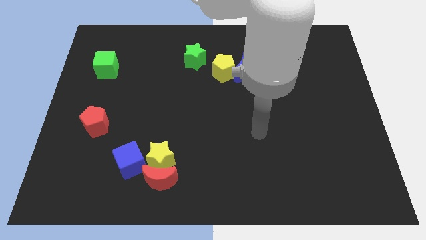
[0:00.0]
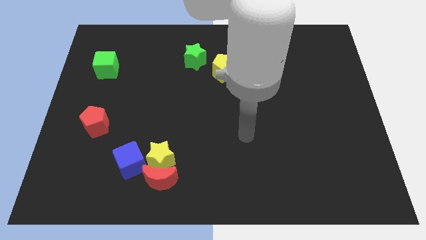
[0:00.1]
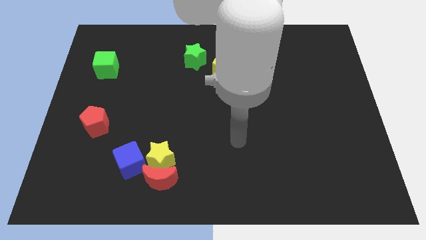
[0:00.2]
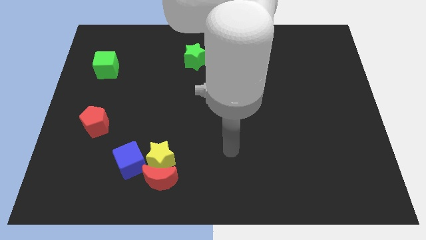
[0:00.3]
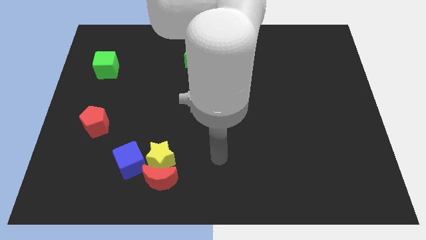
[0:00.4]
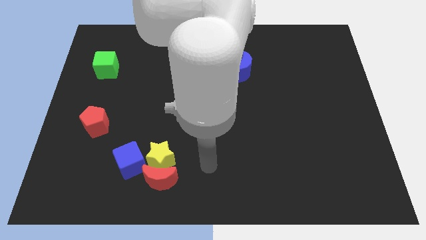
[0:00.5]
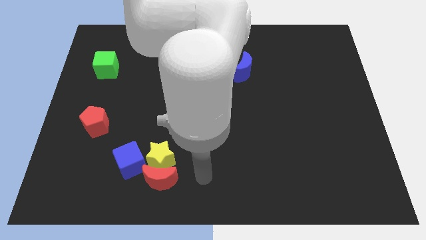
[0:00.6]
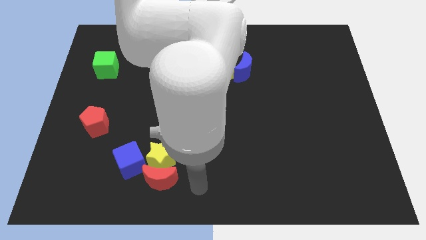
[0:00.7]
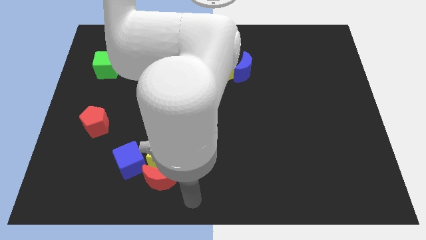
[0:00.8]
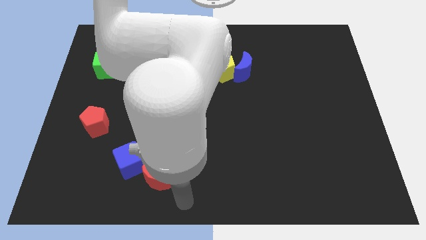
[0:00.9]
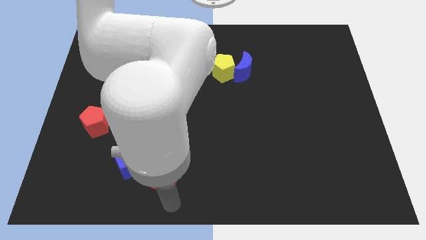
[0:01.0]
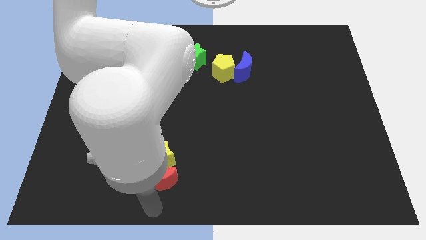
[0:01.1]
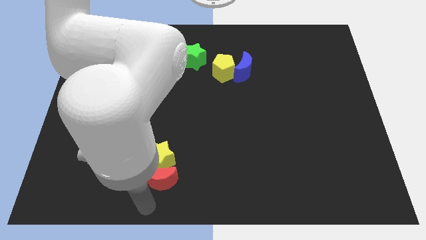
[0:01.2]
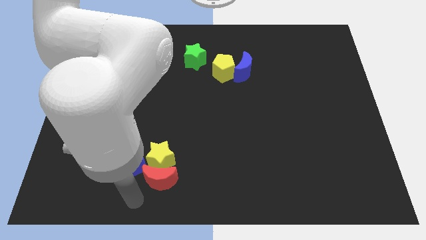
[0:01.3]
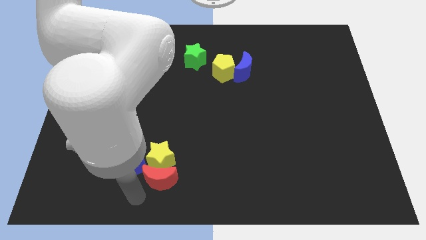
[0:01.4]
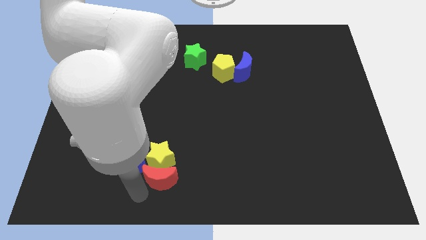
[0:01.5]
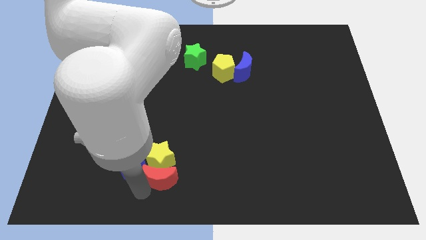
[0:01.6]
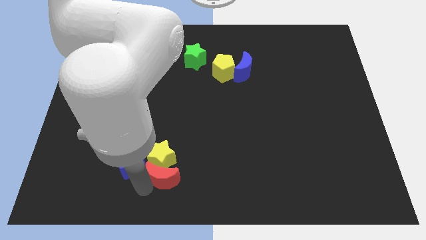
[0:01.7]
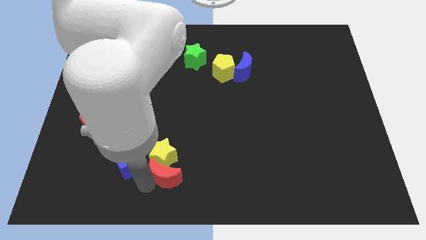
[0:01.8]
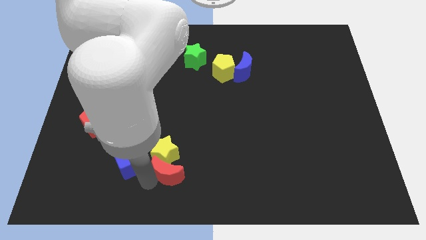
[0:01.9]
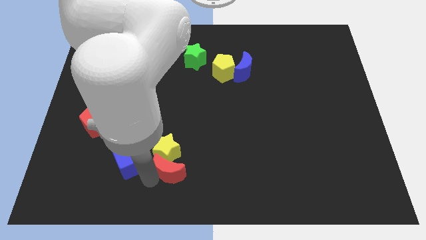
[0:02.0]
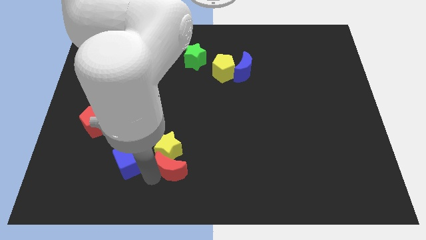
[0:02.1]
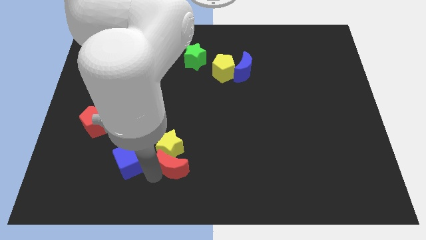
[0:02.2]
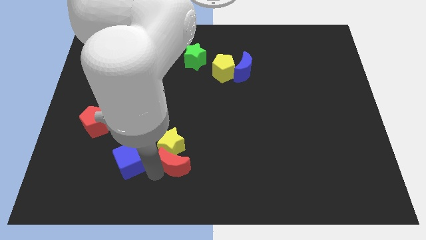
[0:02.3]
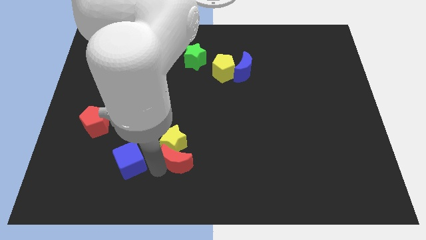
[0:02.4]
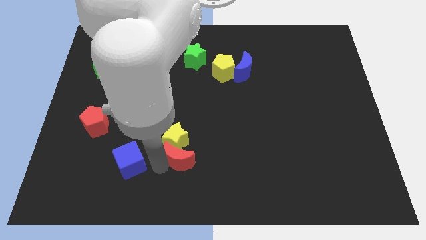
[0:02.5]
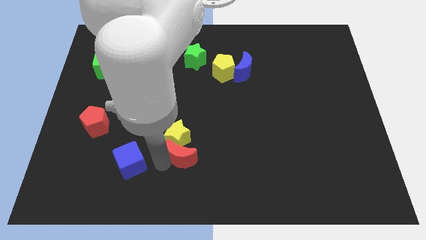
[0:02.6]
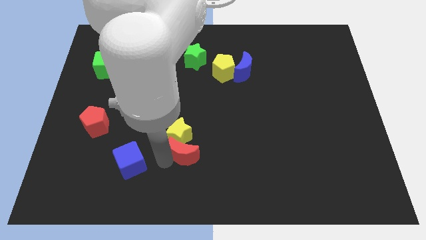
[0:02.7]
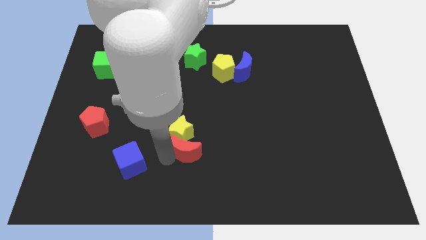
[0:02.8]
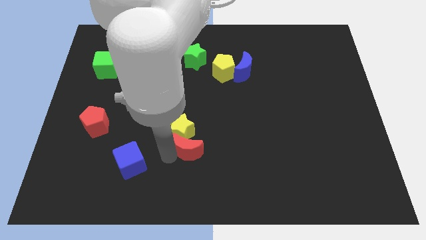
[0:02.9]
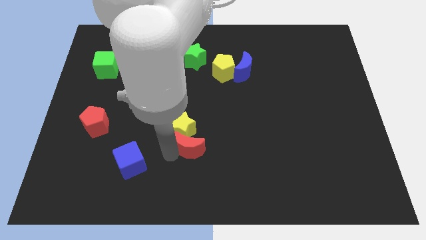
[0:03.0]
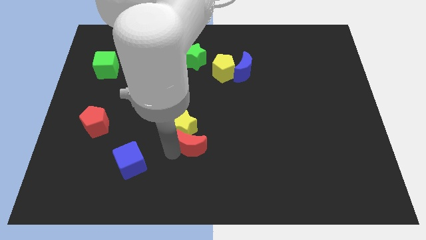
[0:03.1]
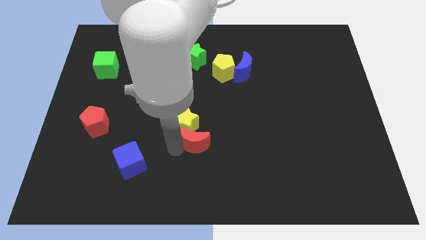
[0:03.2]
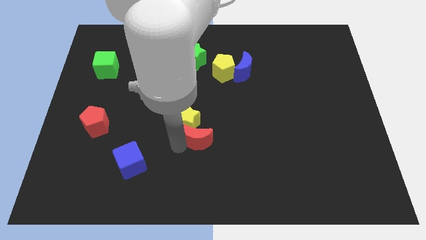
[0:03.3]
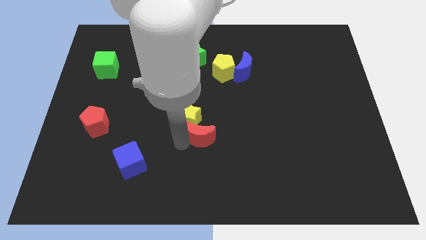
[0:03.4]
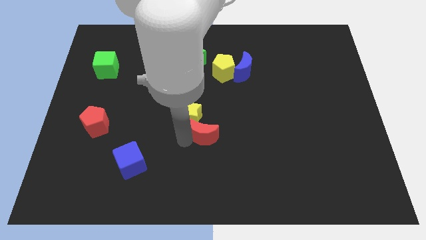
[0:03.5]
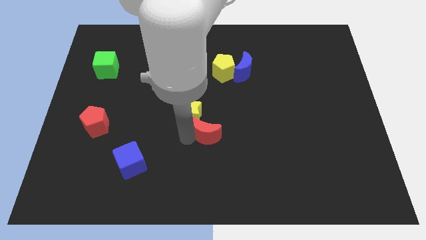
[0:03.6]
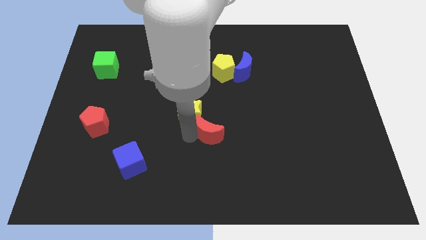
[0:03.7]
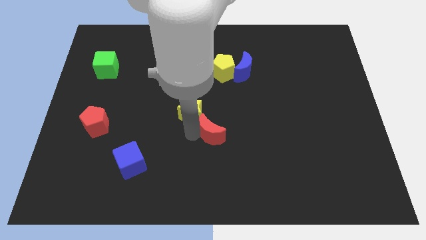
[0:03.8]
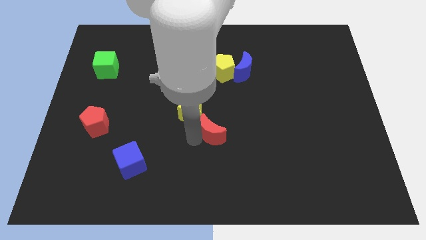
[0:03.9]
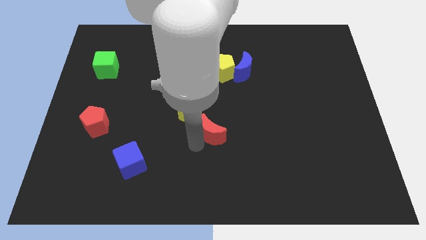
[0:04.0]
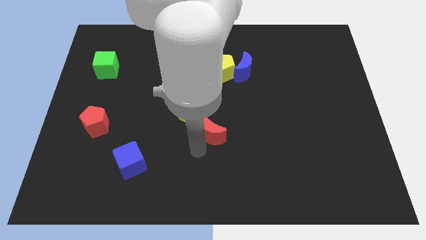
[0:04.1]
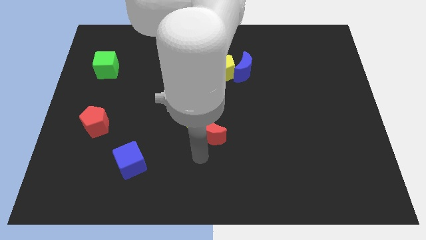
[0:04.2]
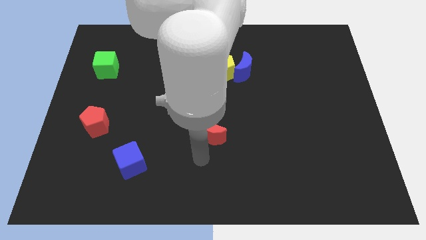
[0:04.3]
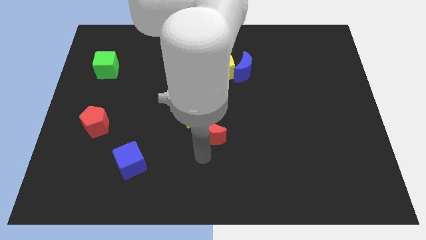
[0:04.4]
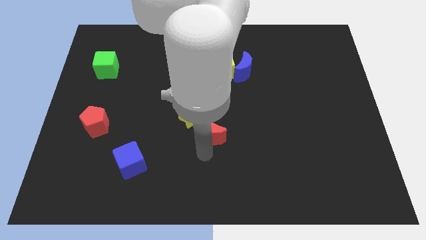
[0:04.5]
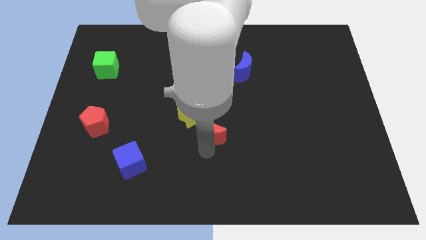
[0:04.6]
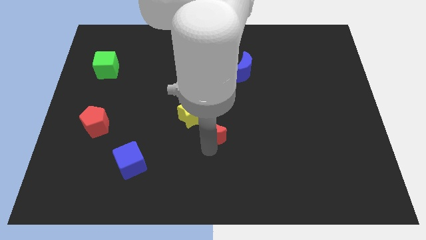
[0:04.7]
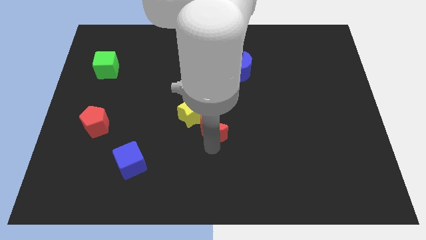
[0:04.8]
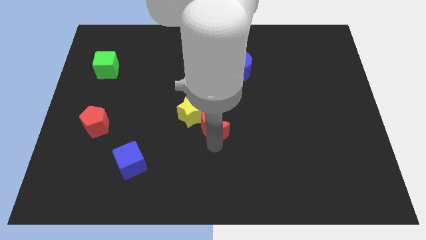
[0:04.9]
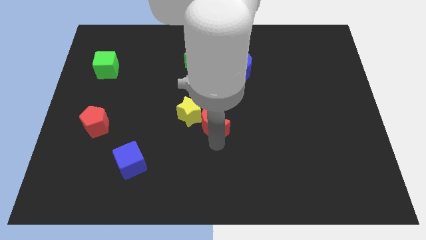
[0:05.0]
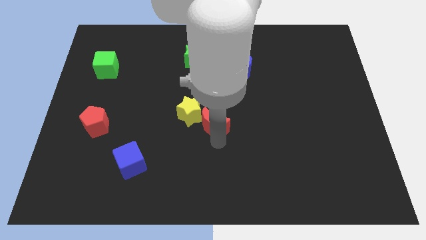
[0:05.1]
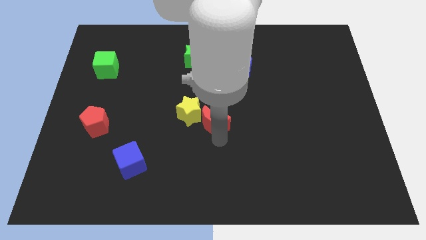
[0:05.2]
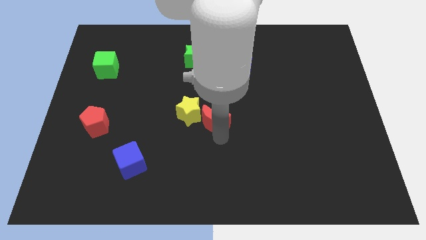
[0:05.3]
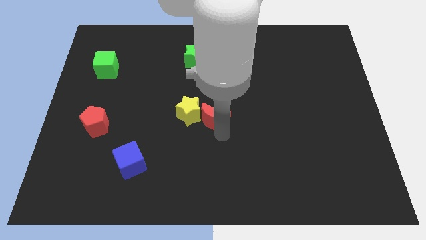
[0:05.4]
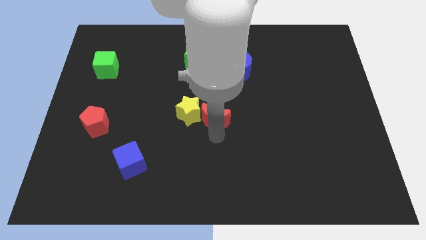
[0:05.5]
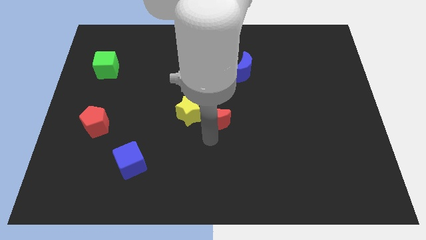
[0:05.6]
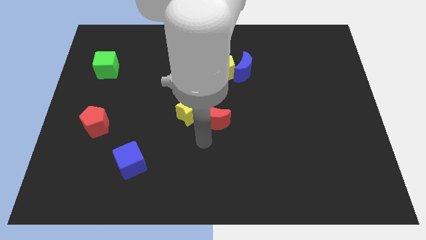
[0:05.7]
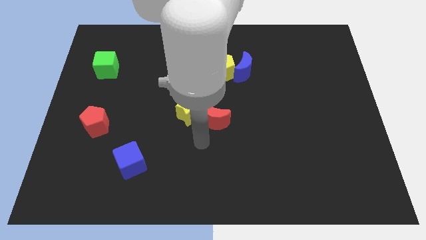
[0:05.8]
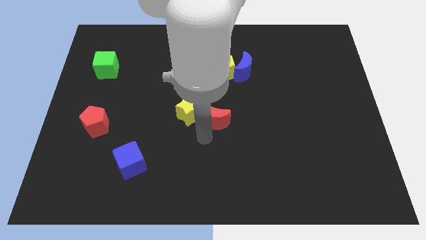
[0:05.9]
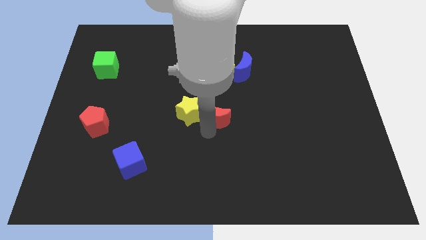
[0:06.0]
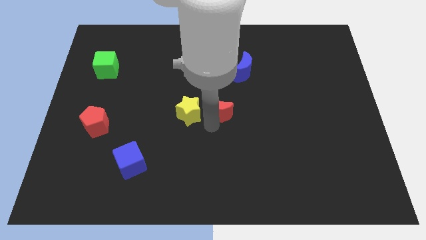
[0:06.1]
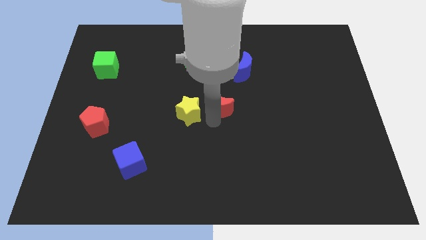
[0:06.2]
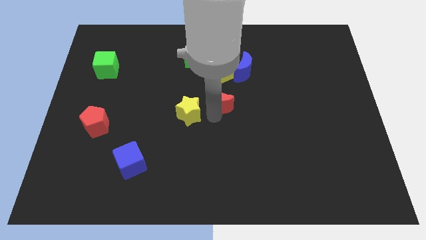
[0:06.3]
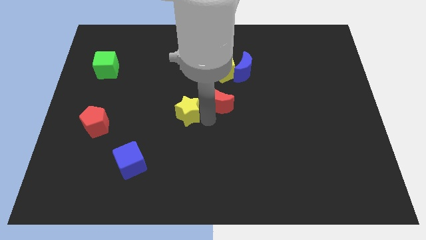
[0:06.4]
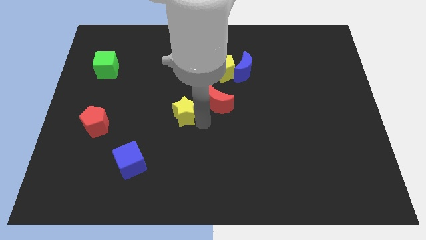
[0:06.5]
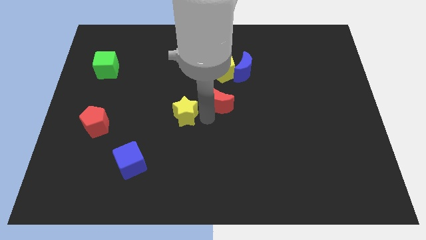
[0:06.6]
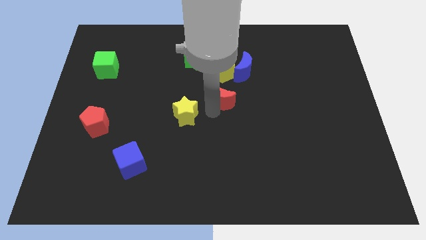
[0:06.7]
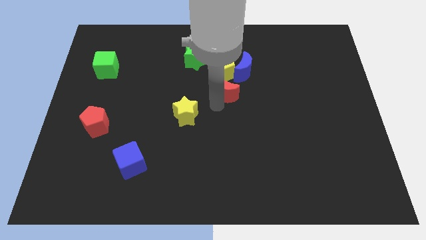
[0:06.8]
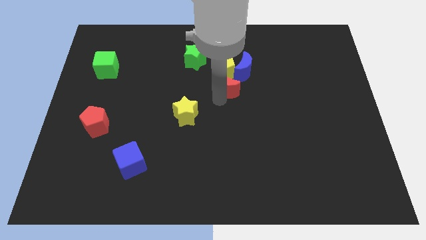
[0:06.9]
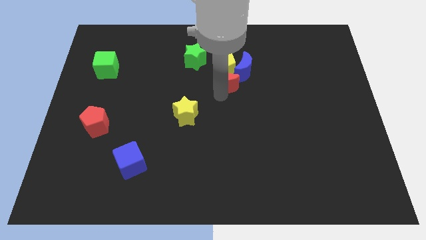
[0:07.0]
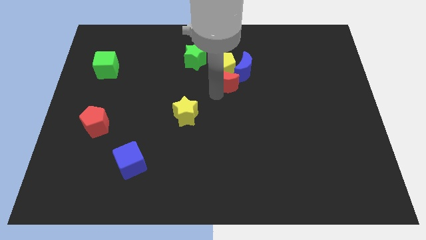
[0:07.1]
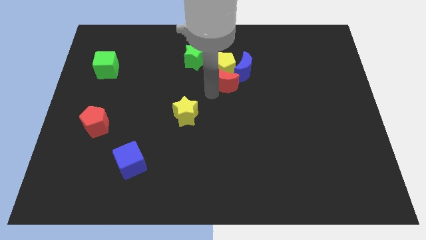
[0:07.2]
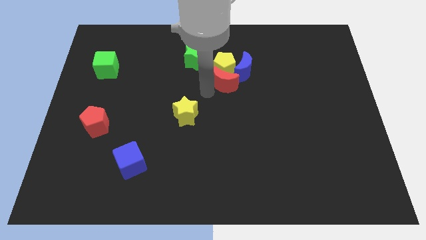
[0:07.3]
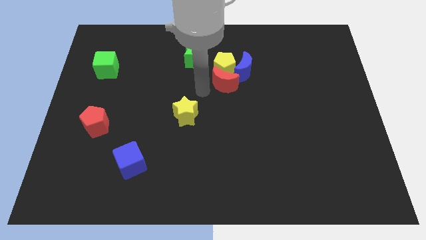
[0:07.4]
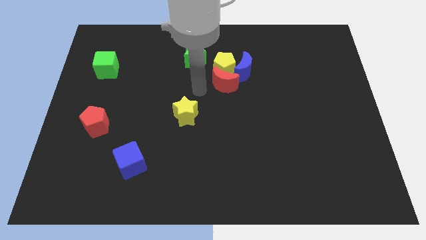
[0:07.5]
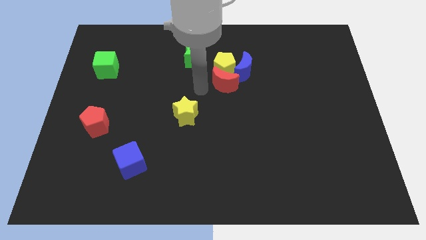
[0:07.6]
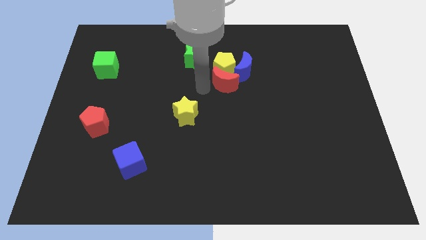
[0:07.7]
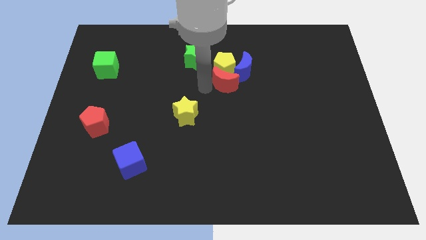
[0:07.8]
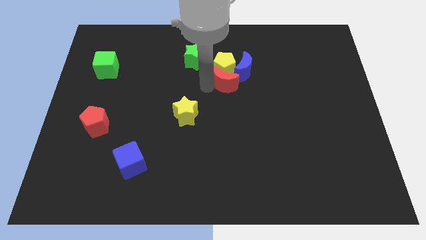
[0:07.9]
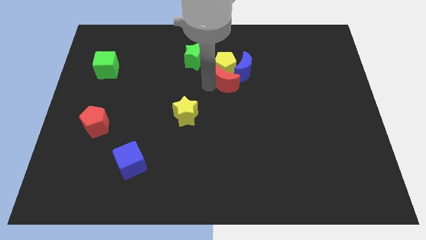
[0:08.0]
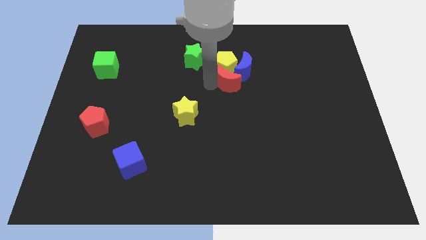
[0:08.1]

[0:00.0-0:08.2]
slide the red moon close to the blue moon
